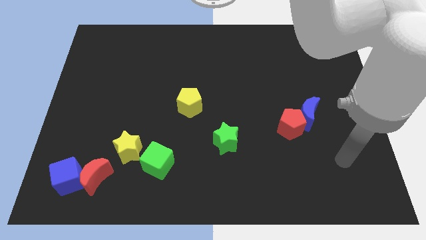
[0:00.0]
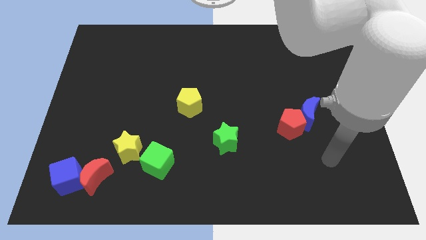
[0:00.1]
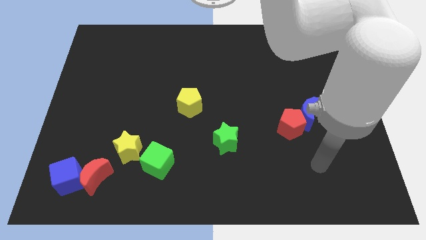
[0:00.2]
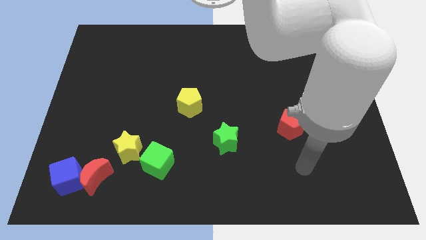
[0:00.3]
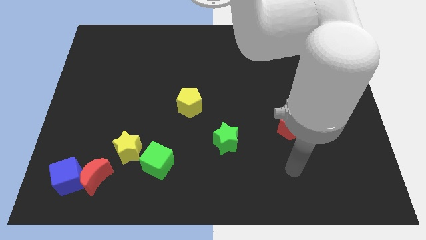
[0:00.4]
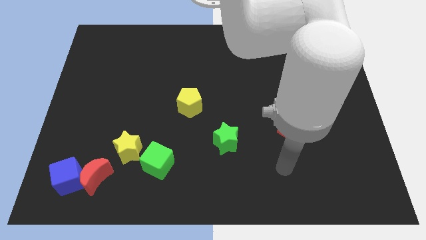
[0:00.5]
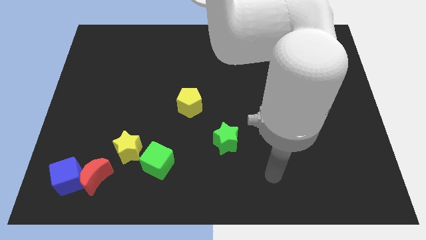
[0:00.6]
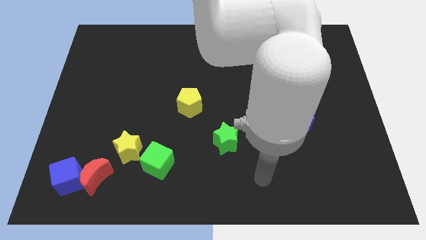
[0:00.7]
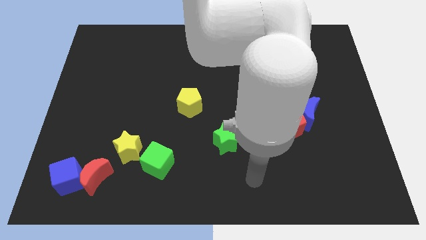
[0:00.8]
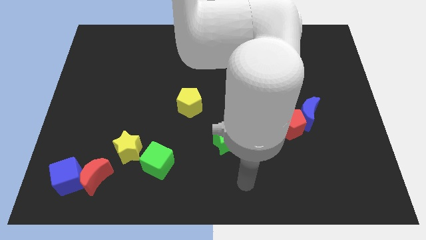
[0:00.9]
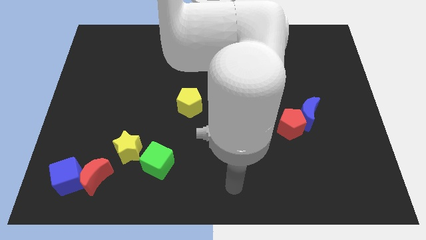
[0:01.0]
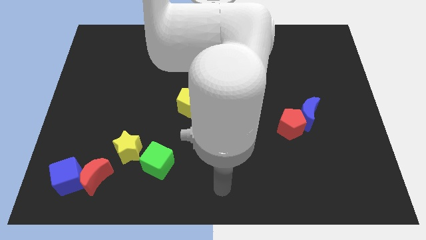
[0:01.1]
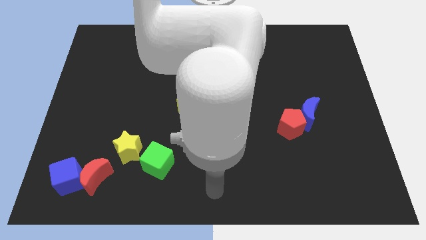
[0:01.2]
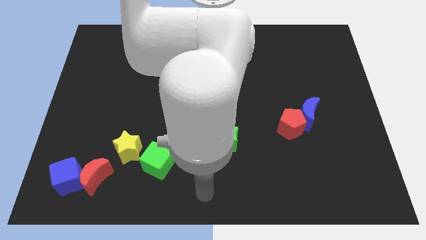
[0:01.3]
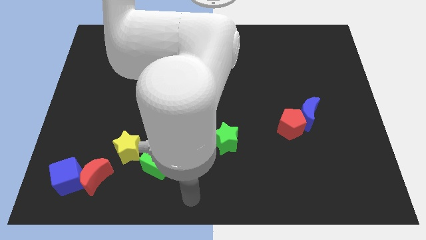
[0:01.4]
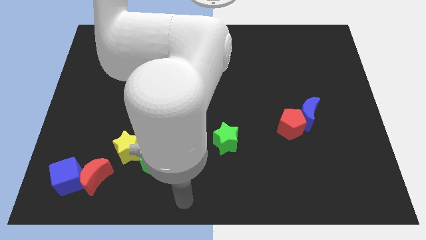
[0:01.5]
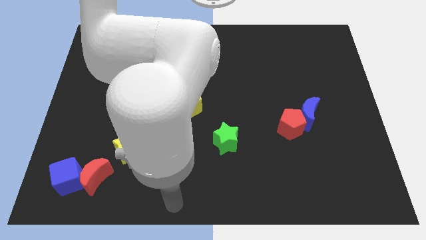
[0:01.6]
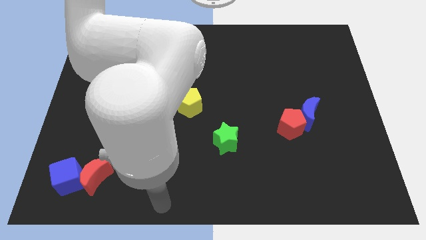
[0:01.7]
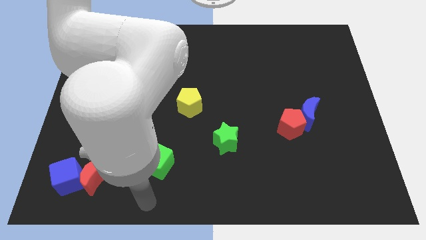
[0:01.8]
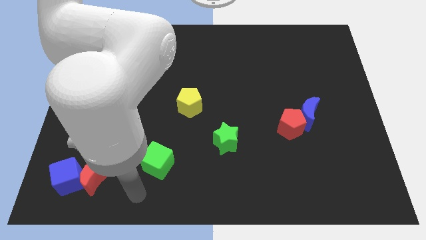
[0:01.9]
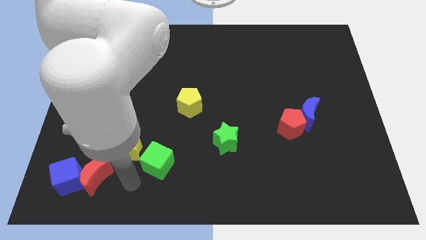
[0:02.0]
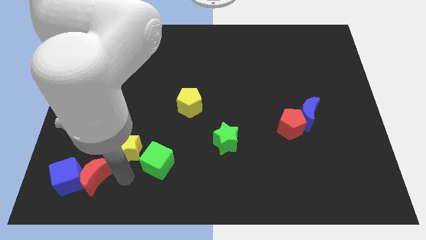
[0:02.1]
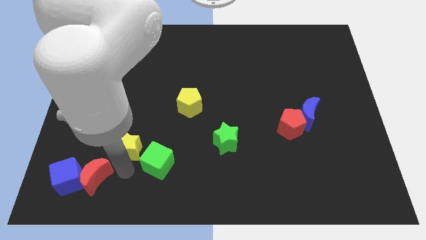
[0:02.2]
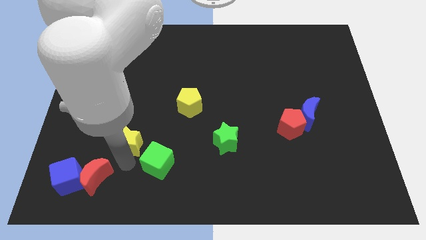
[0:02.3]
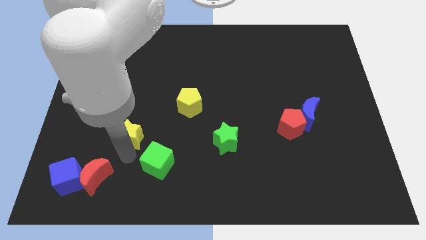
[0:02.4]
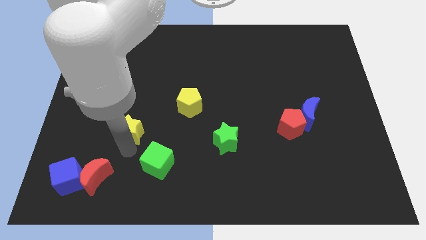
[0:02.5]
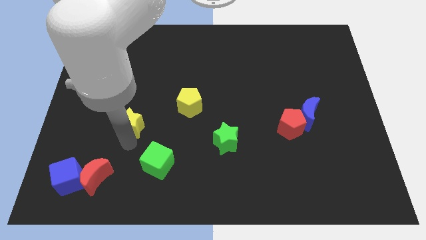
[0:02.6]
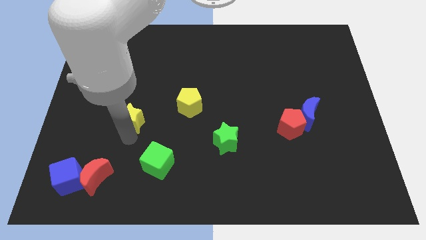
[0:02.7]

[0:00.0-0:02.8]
slightly move the yellow star upwards

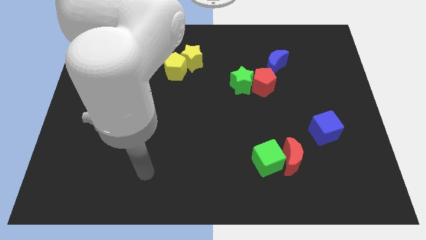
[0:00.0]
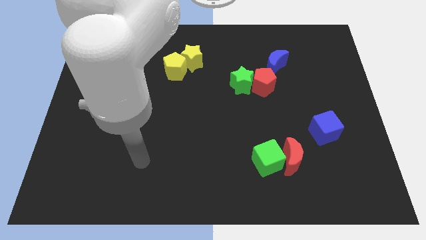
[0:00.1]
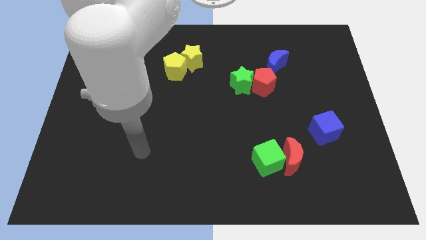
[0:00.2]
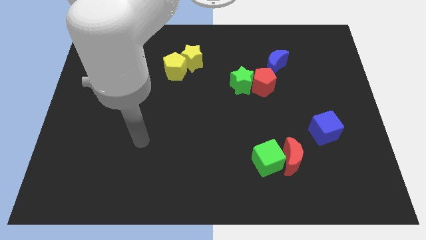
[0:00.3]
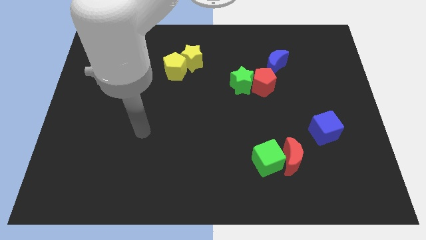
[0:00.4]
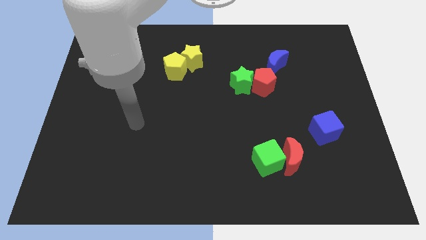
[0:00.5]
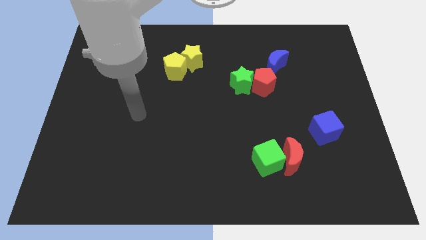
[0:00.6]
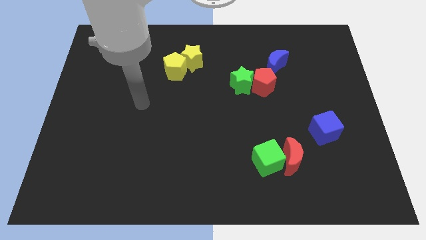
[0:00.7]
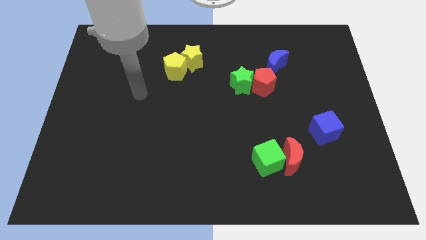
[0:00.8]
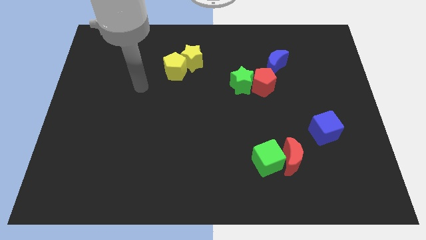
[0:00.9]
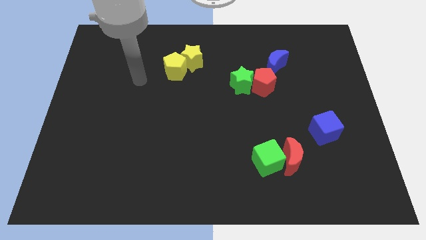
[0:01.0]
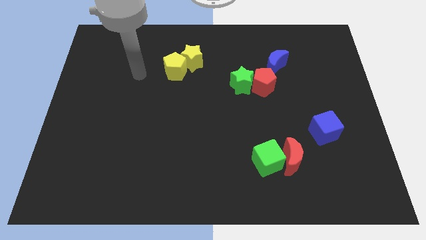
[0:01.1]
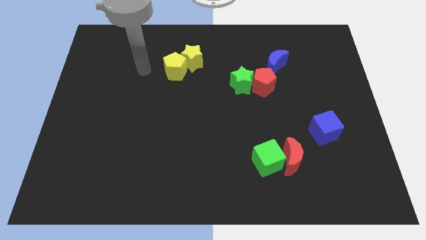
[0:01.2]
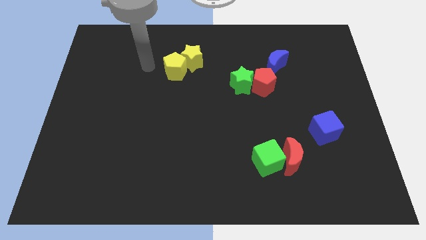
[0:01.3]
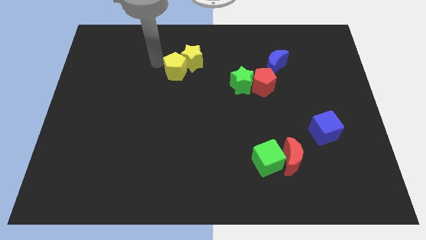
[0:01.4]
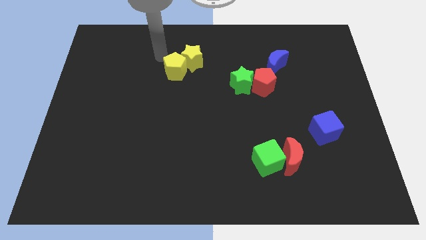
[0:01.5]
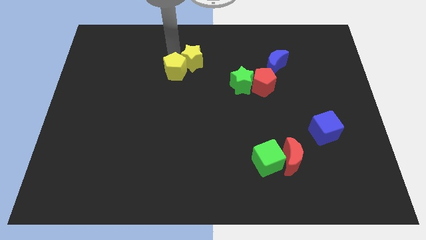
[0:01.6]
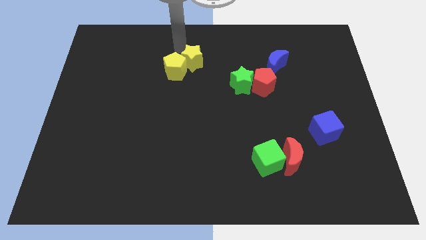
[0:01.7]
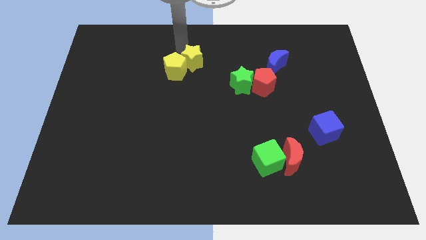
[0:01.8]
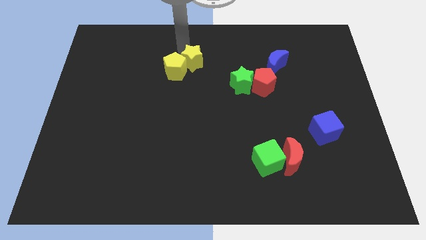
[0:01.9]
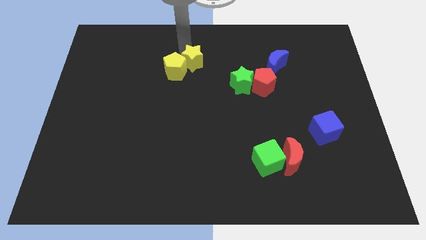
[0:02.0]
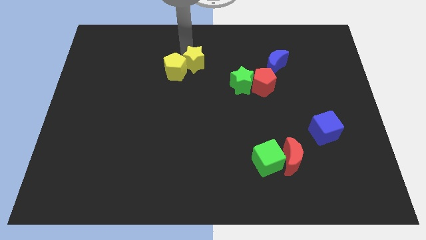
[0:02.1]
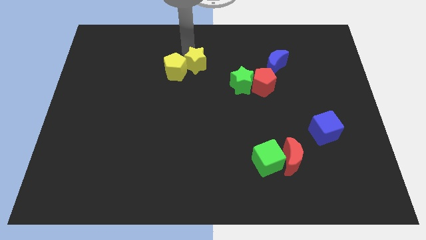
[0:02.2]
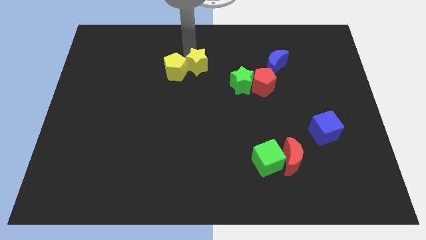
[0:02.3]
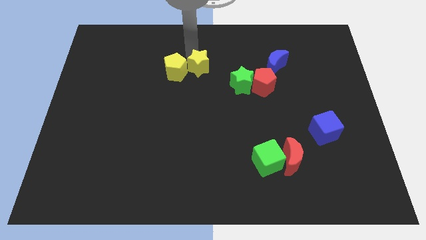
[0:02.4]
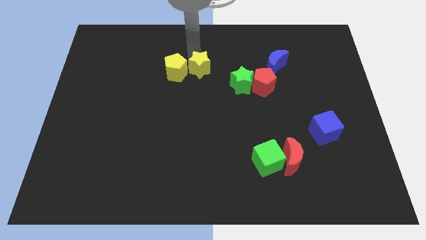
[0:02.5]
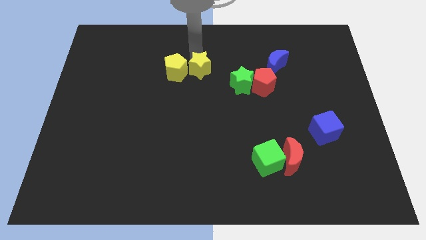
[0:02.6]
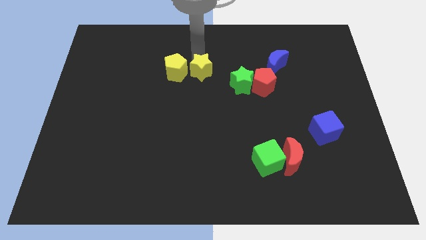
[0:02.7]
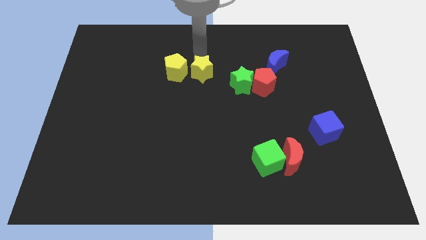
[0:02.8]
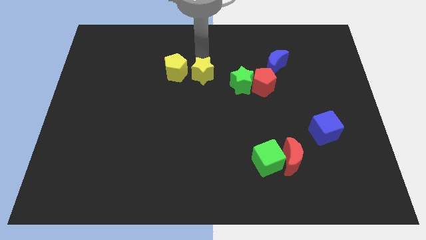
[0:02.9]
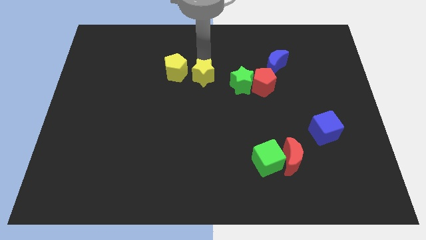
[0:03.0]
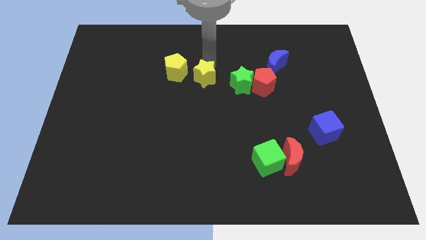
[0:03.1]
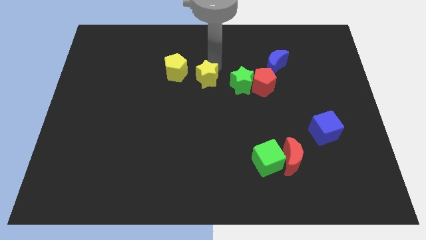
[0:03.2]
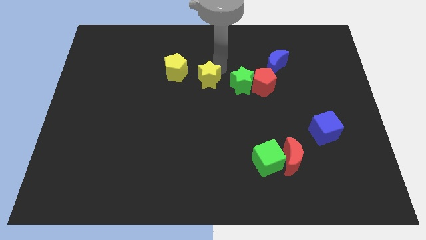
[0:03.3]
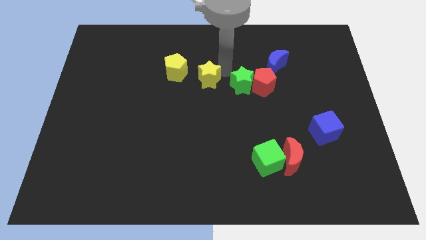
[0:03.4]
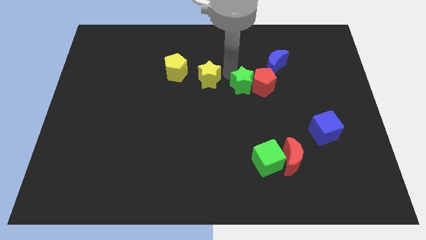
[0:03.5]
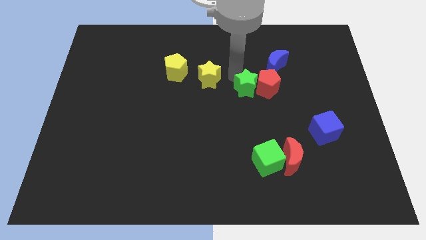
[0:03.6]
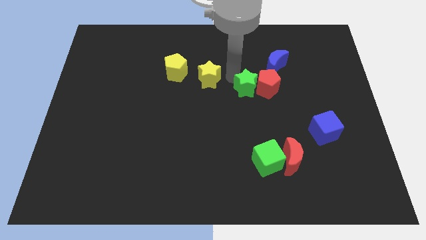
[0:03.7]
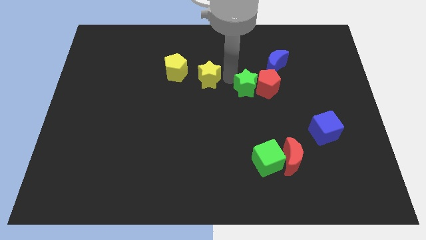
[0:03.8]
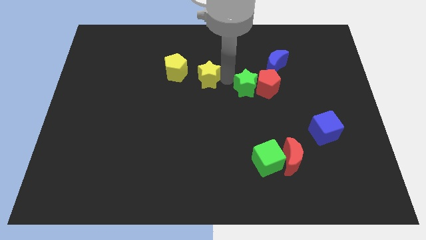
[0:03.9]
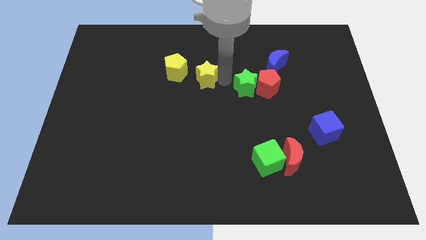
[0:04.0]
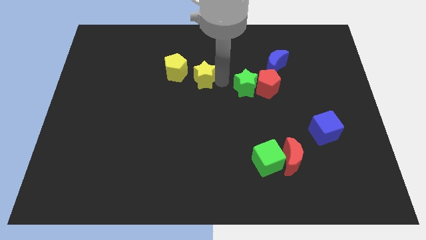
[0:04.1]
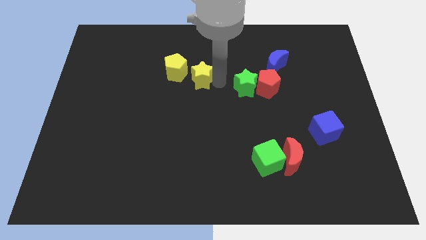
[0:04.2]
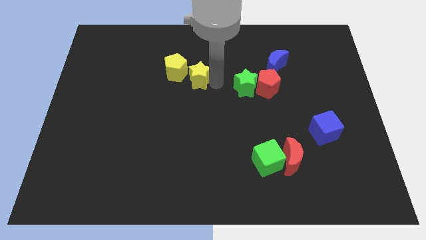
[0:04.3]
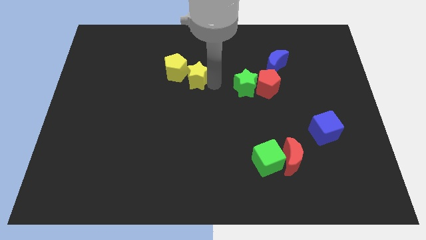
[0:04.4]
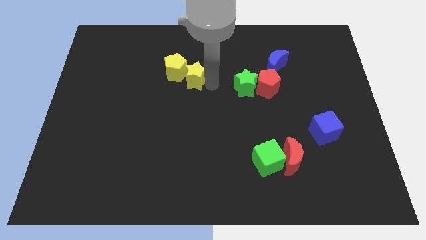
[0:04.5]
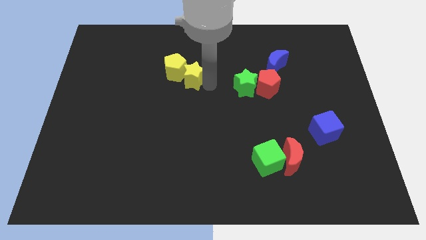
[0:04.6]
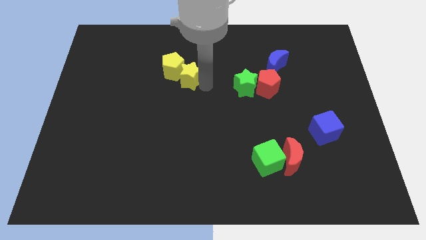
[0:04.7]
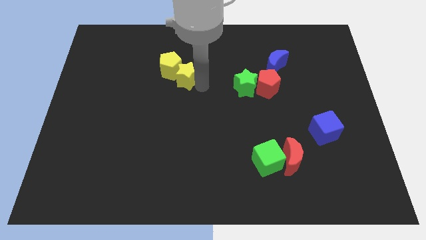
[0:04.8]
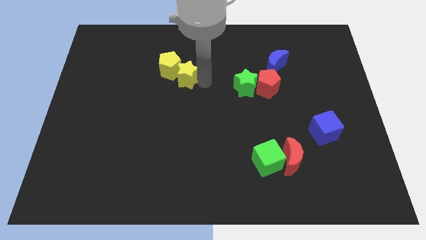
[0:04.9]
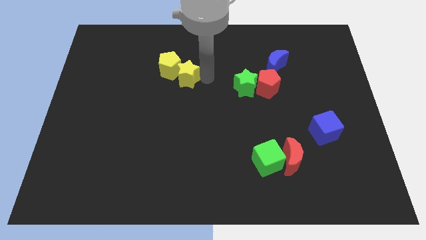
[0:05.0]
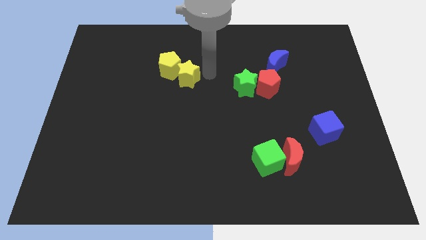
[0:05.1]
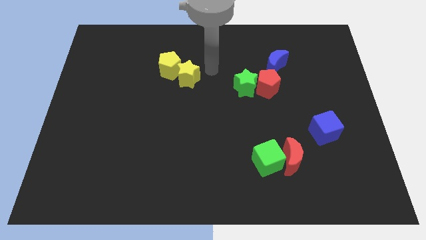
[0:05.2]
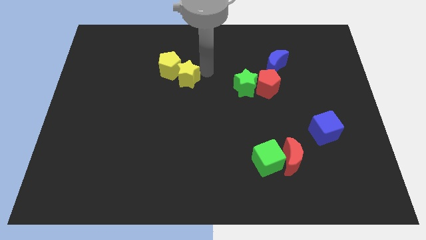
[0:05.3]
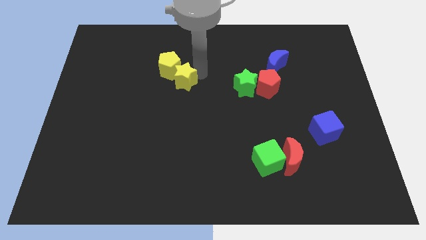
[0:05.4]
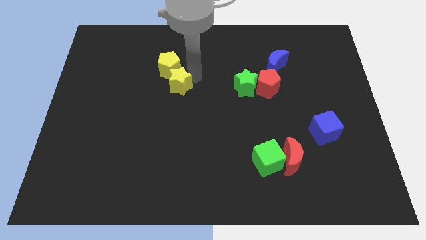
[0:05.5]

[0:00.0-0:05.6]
move the yellow star down and then left somewhat
